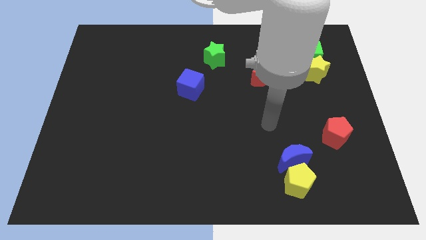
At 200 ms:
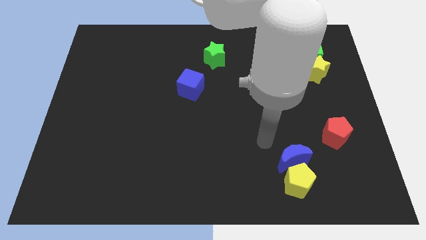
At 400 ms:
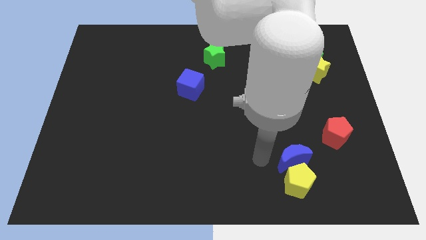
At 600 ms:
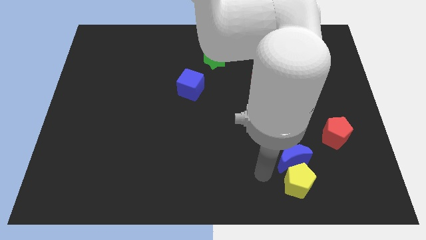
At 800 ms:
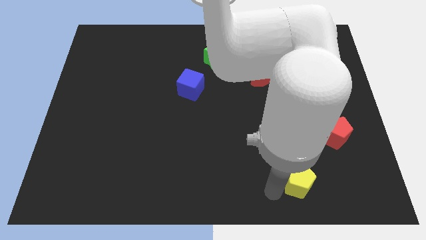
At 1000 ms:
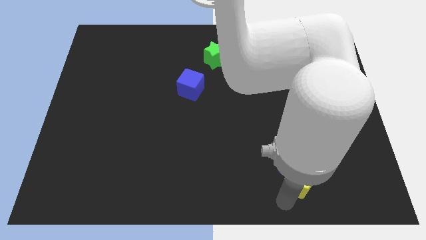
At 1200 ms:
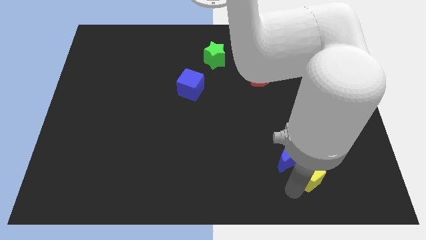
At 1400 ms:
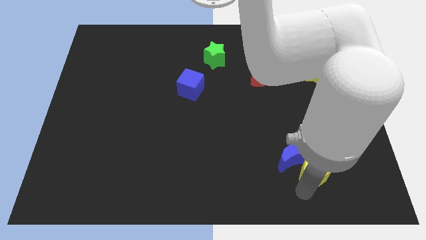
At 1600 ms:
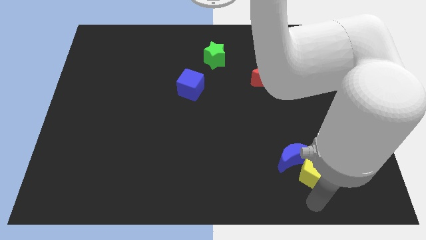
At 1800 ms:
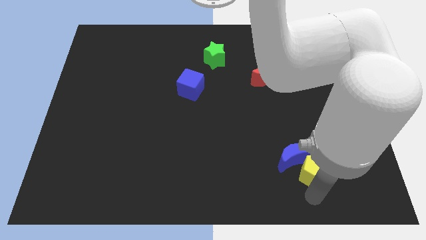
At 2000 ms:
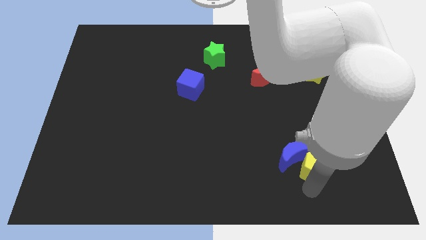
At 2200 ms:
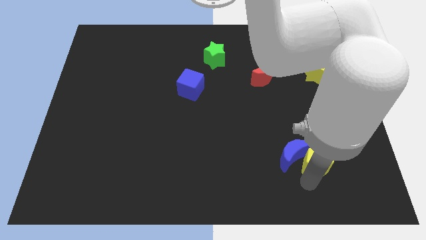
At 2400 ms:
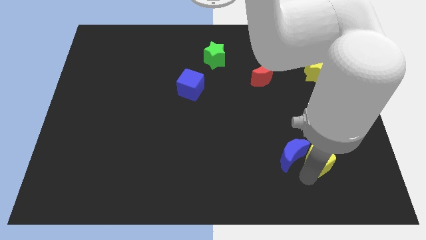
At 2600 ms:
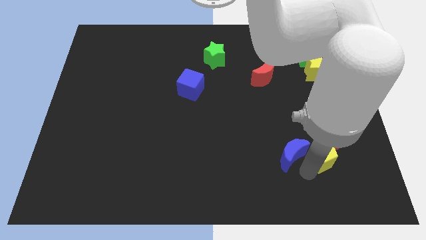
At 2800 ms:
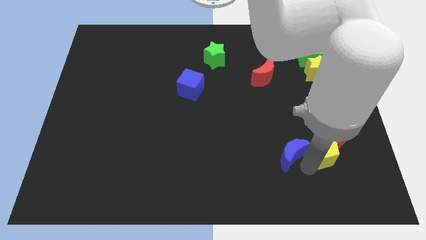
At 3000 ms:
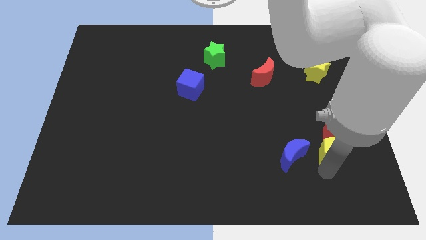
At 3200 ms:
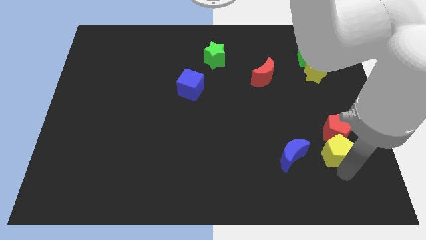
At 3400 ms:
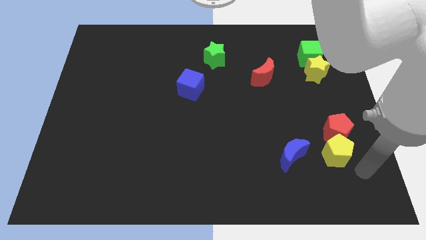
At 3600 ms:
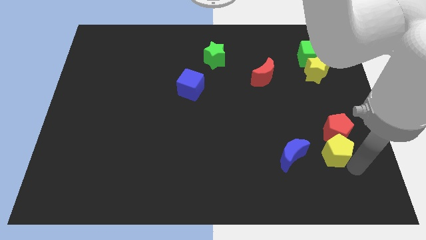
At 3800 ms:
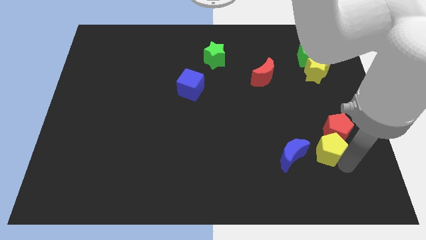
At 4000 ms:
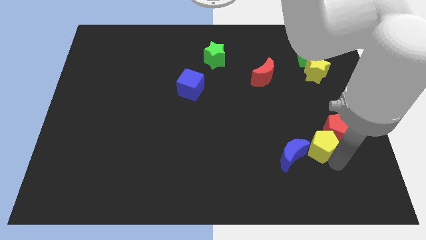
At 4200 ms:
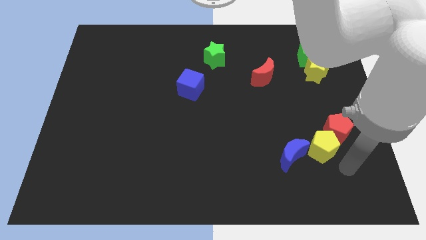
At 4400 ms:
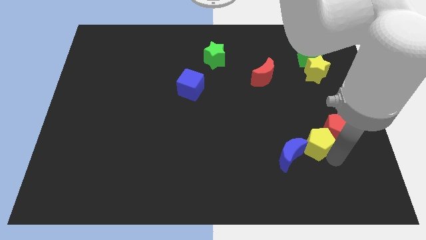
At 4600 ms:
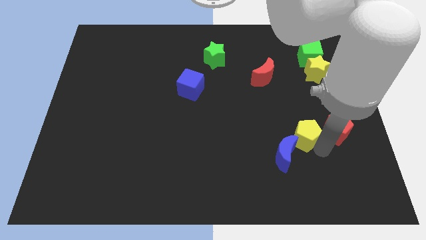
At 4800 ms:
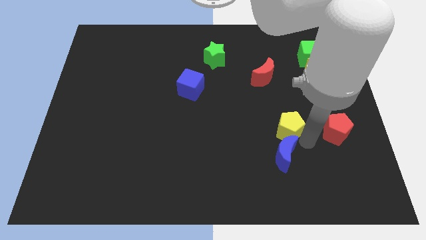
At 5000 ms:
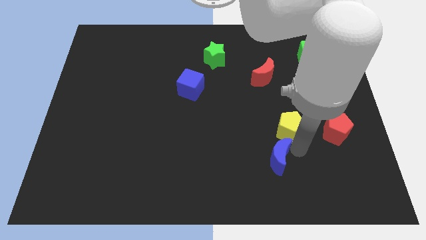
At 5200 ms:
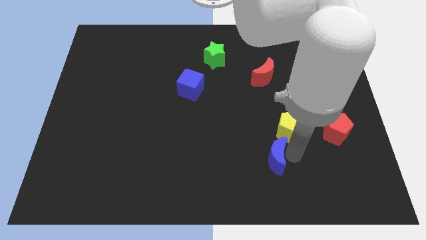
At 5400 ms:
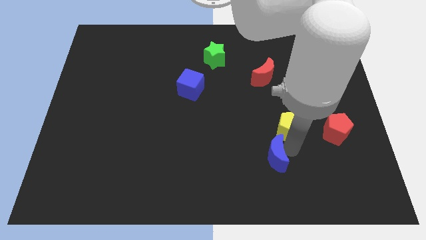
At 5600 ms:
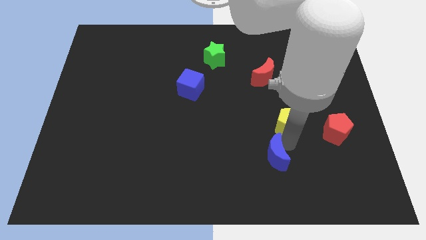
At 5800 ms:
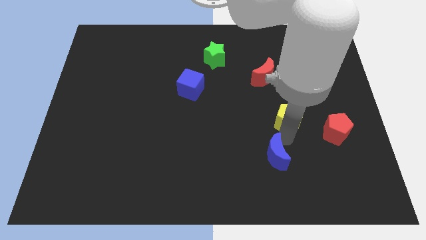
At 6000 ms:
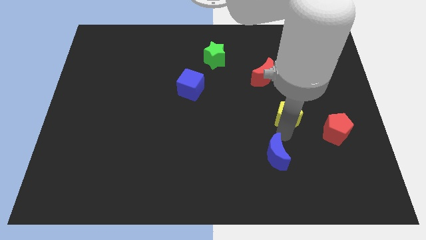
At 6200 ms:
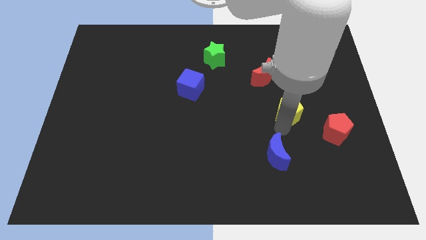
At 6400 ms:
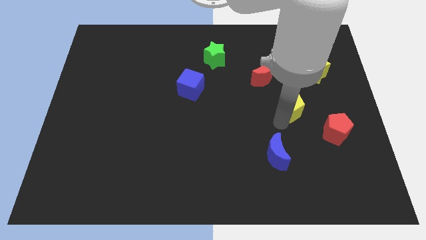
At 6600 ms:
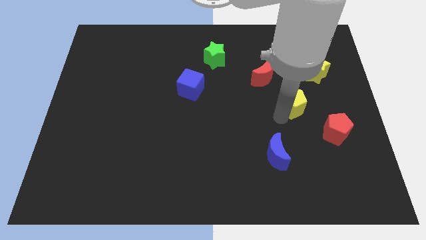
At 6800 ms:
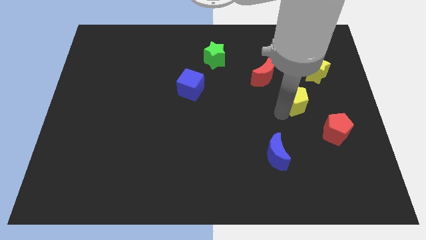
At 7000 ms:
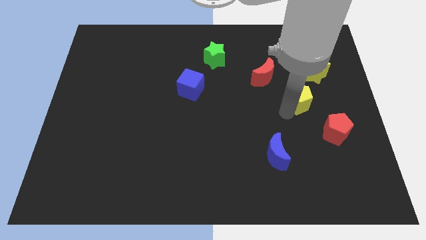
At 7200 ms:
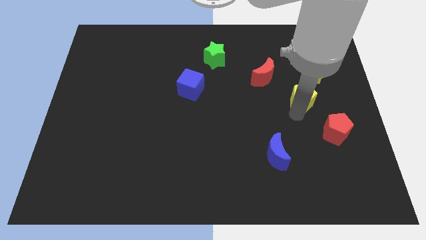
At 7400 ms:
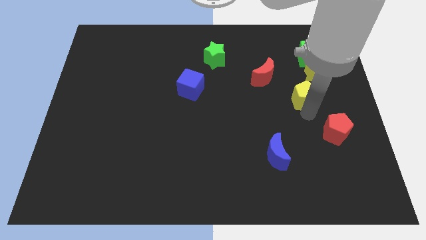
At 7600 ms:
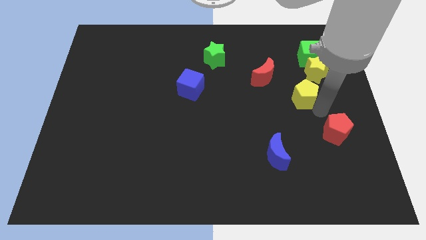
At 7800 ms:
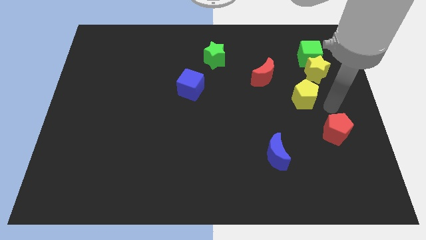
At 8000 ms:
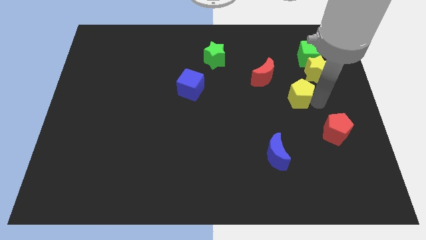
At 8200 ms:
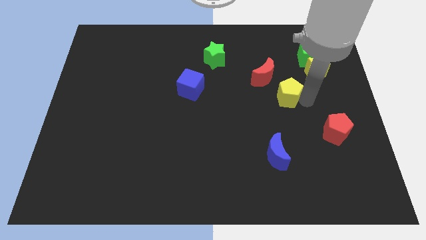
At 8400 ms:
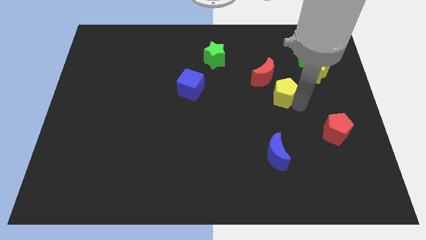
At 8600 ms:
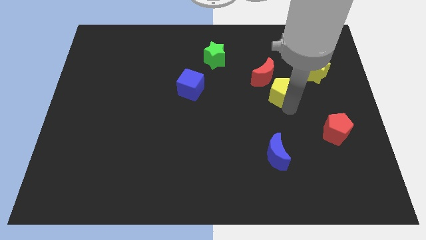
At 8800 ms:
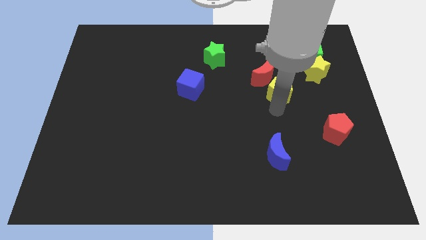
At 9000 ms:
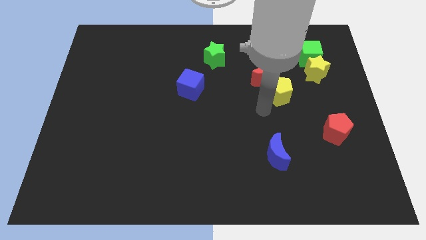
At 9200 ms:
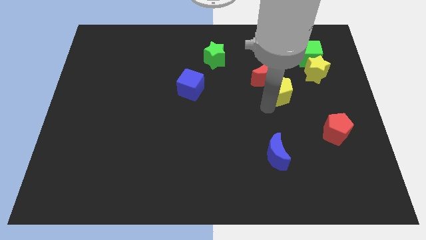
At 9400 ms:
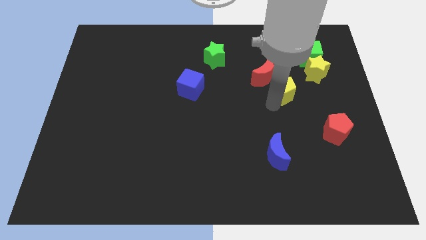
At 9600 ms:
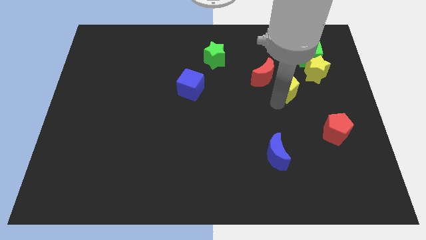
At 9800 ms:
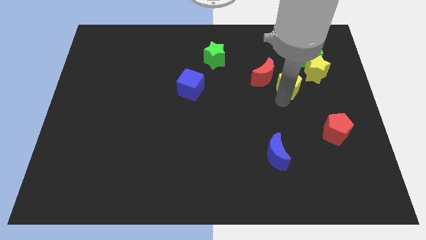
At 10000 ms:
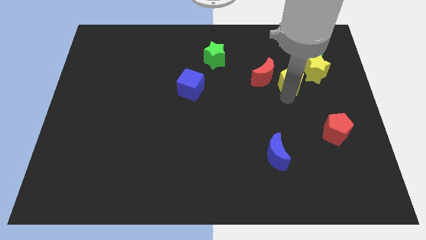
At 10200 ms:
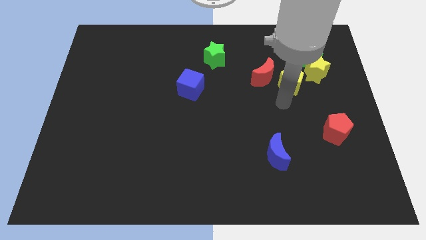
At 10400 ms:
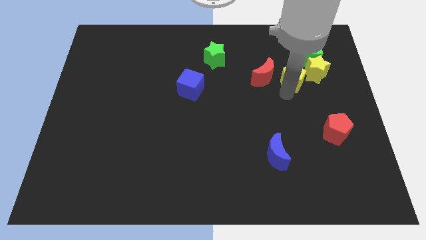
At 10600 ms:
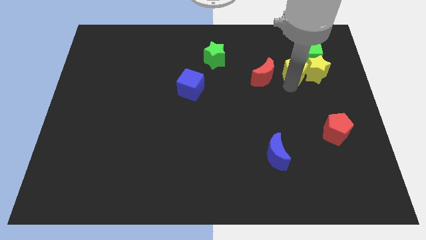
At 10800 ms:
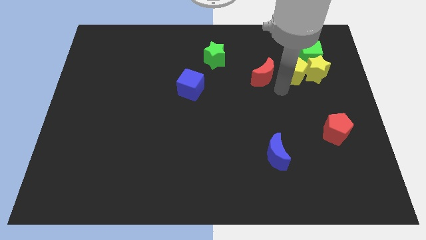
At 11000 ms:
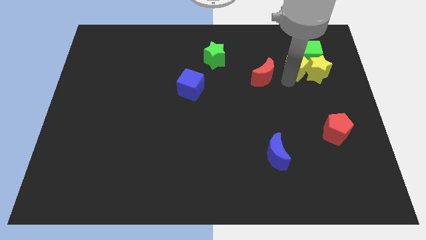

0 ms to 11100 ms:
slide the yellow pentagon next to the green cube

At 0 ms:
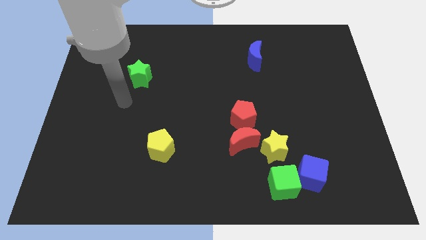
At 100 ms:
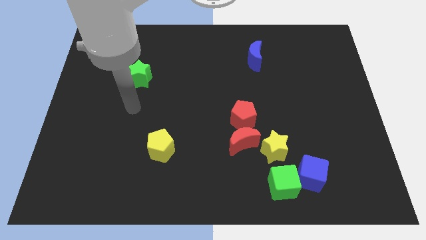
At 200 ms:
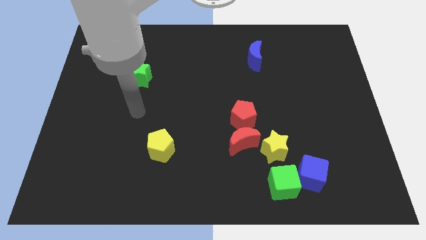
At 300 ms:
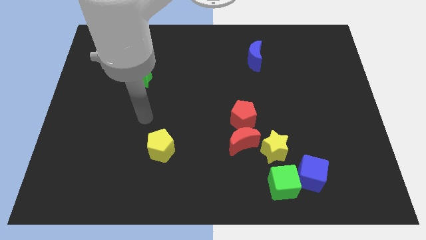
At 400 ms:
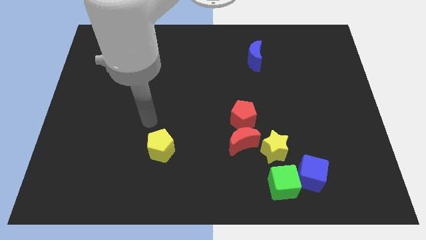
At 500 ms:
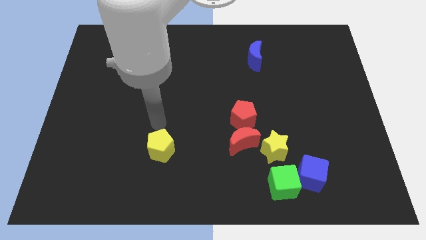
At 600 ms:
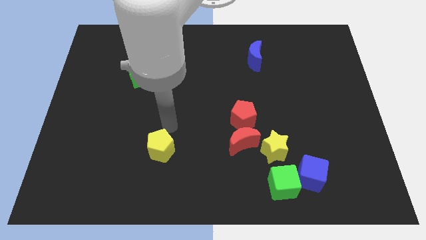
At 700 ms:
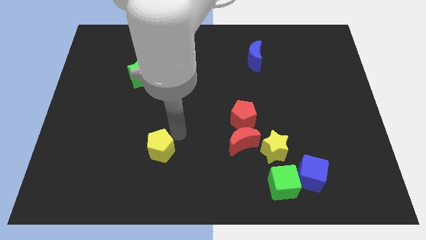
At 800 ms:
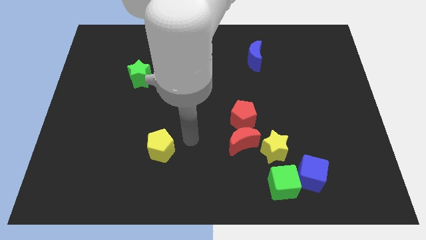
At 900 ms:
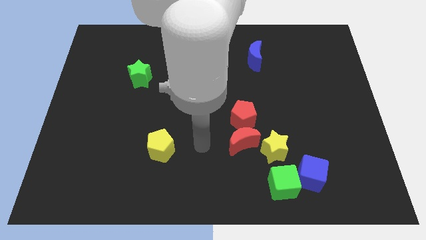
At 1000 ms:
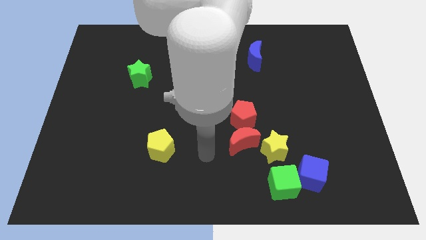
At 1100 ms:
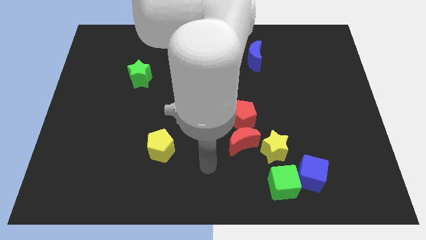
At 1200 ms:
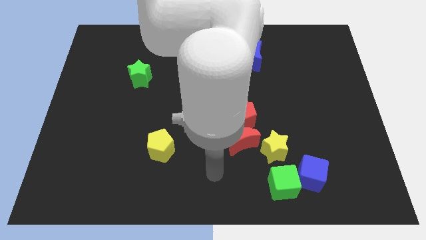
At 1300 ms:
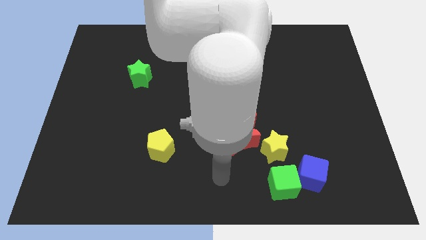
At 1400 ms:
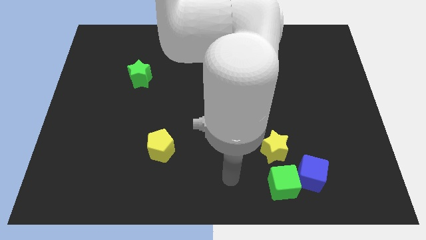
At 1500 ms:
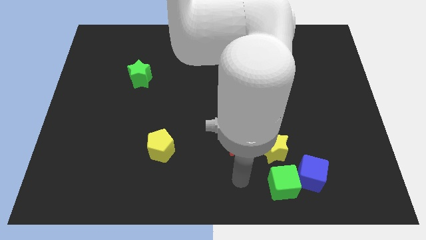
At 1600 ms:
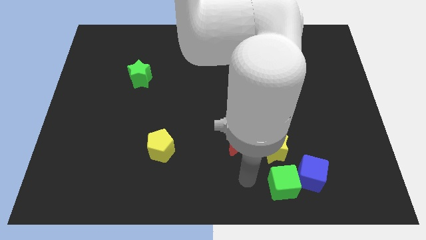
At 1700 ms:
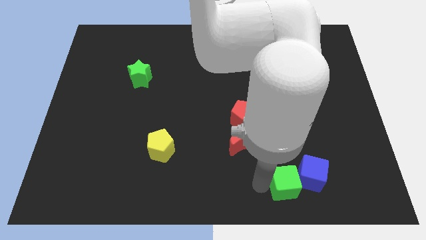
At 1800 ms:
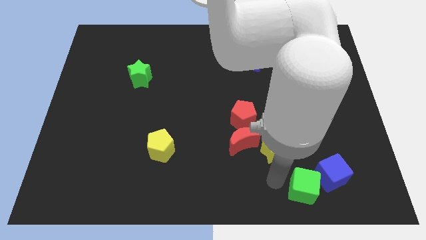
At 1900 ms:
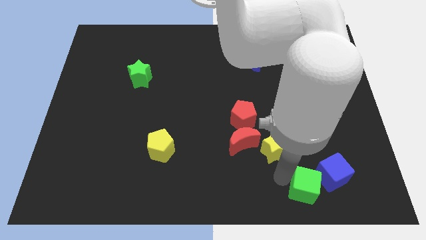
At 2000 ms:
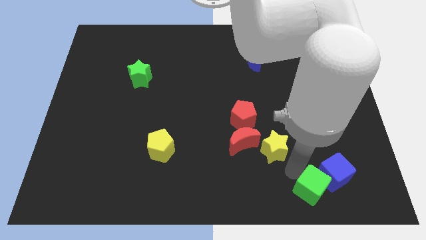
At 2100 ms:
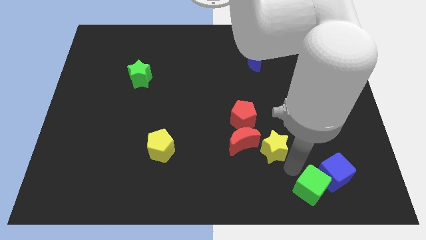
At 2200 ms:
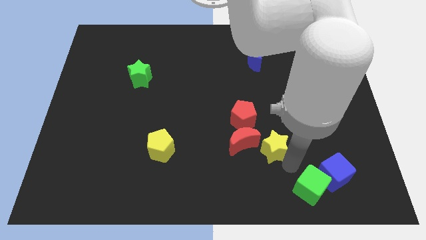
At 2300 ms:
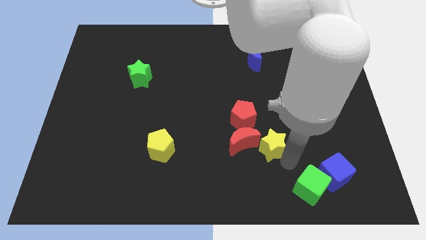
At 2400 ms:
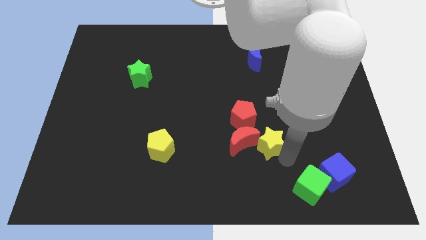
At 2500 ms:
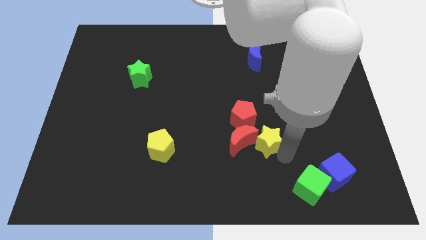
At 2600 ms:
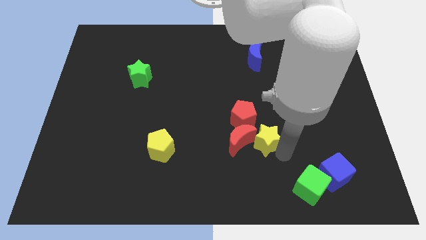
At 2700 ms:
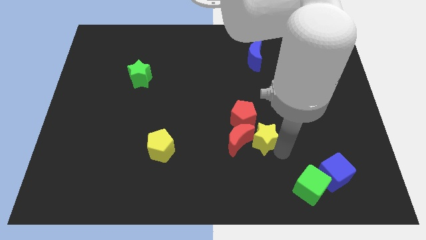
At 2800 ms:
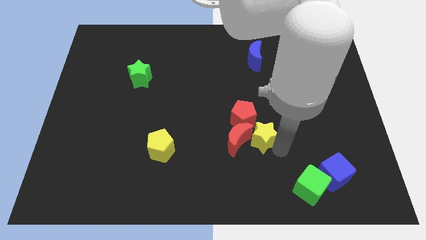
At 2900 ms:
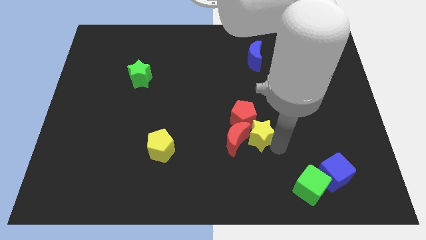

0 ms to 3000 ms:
move the yellow star towards the red pentagon
